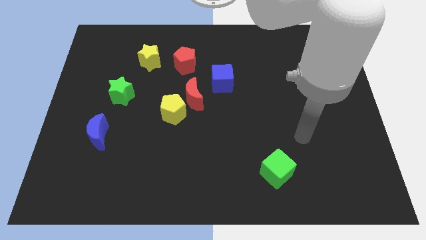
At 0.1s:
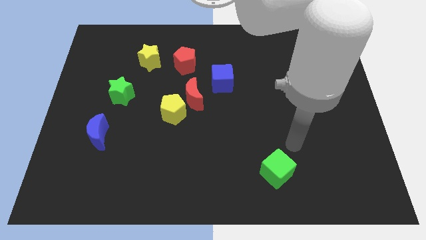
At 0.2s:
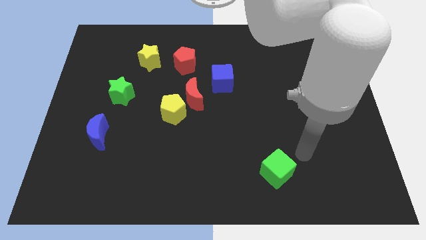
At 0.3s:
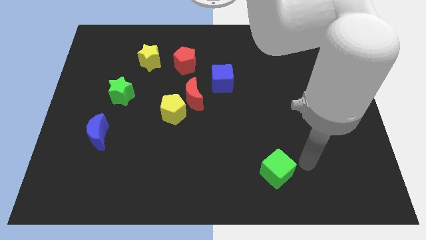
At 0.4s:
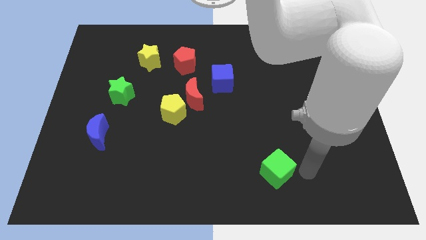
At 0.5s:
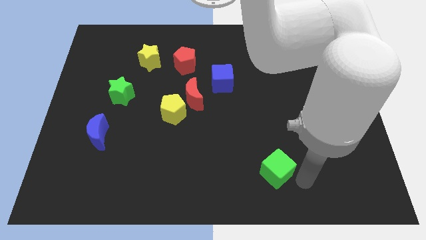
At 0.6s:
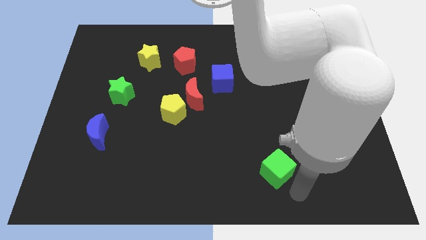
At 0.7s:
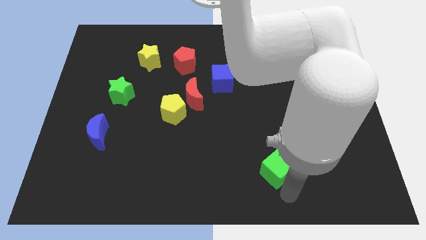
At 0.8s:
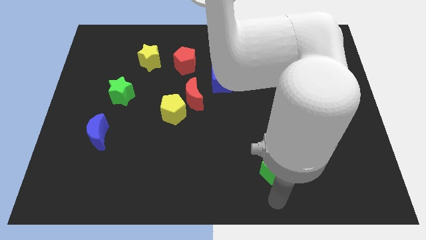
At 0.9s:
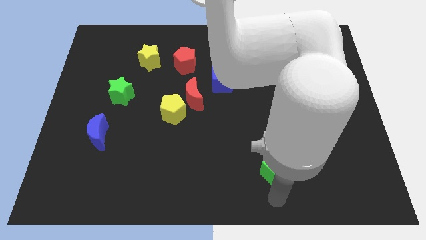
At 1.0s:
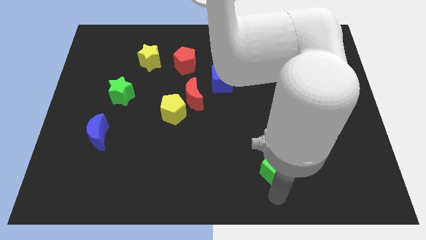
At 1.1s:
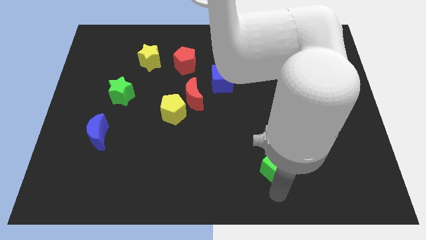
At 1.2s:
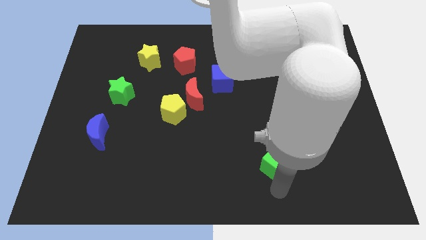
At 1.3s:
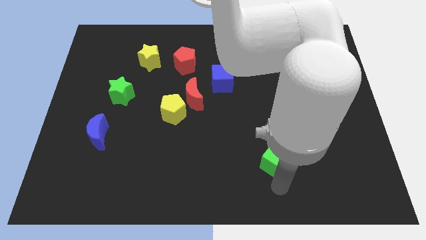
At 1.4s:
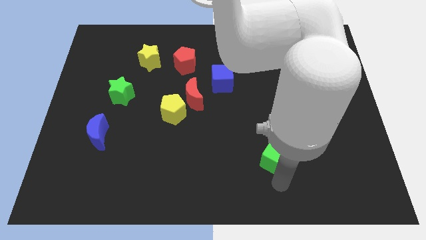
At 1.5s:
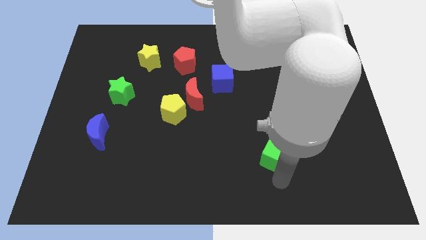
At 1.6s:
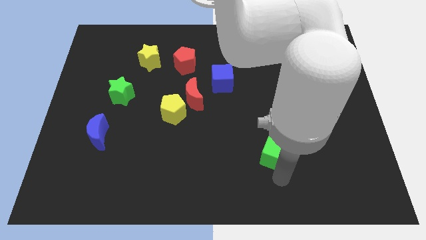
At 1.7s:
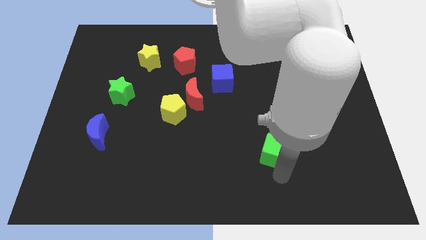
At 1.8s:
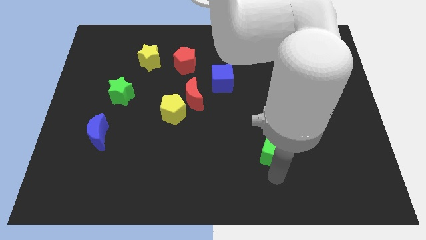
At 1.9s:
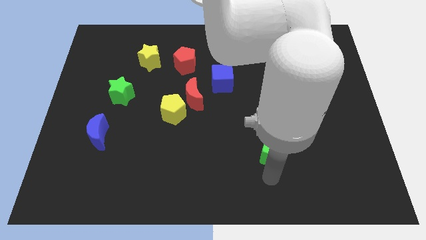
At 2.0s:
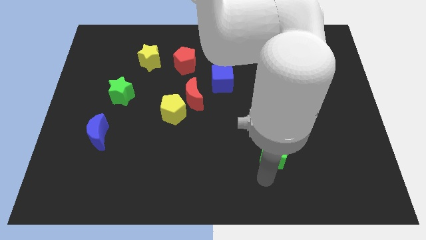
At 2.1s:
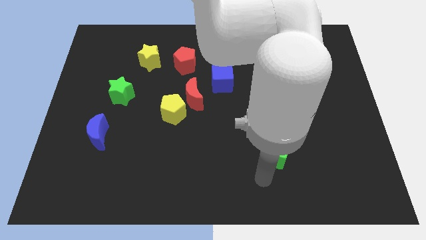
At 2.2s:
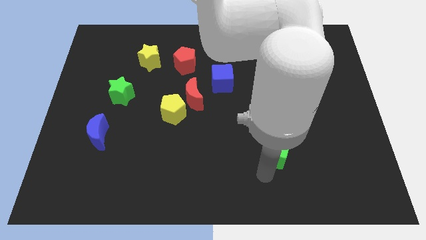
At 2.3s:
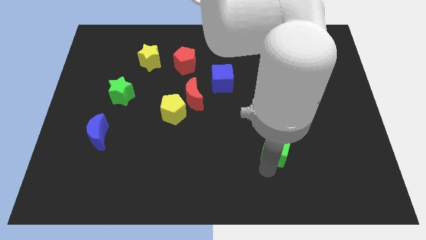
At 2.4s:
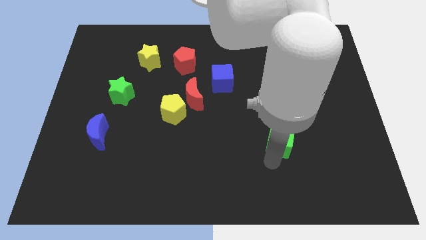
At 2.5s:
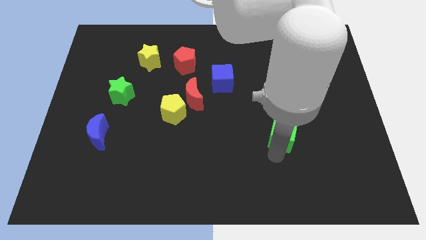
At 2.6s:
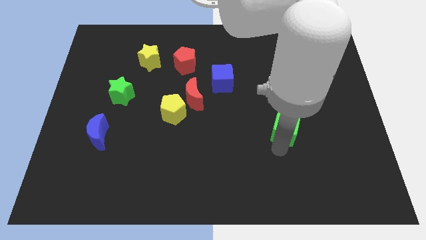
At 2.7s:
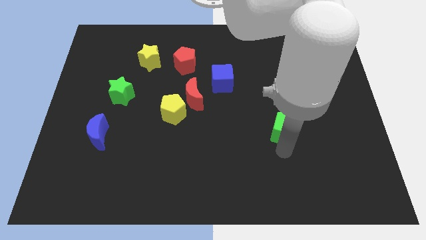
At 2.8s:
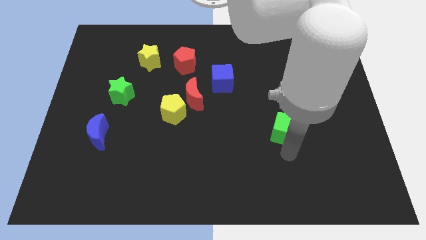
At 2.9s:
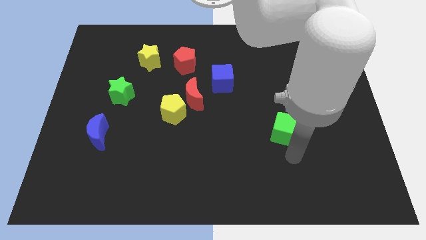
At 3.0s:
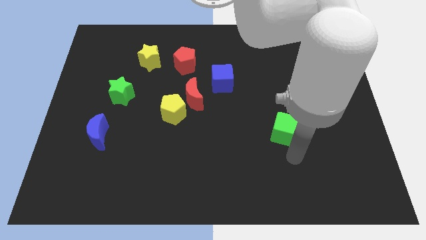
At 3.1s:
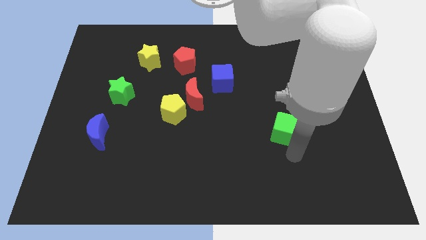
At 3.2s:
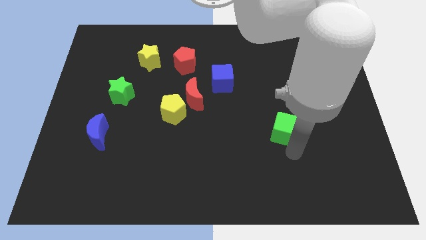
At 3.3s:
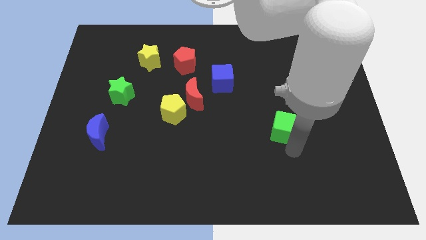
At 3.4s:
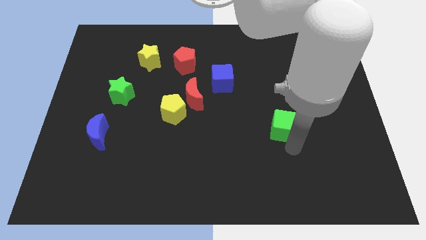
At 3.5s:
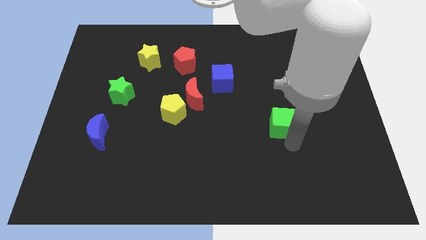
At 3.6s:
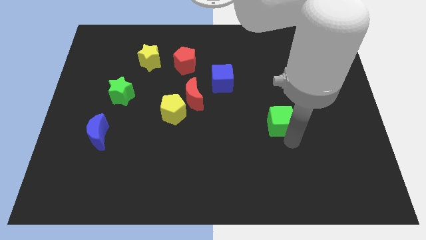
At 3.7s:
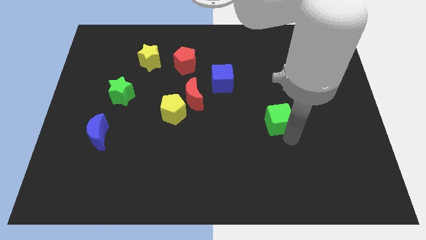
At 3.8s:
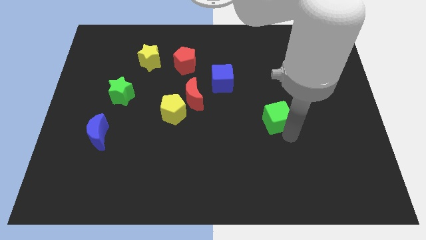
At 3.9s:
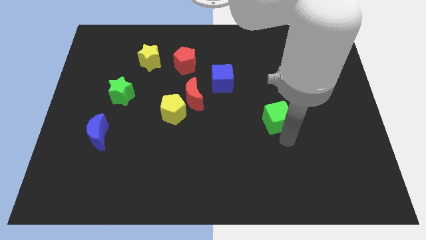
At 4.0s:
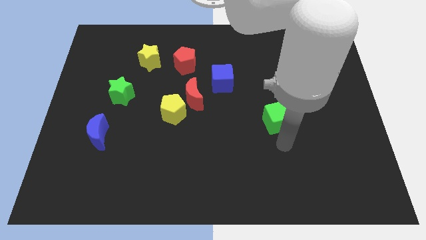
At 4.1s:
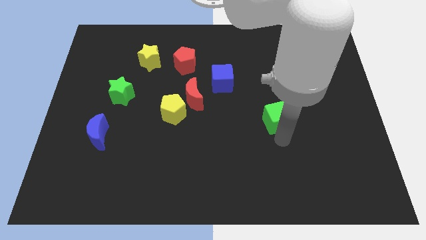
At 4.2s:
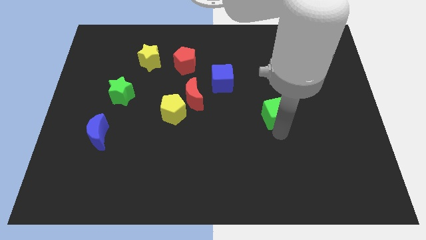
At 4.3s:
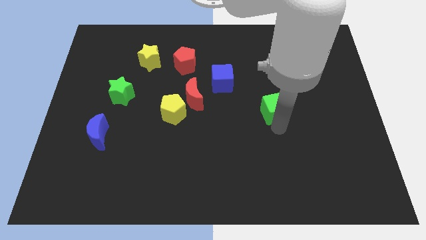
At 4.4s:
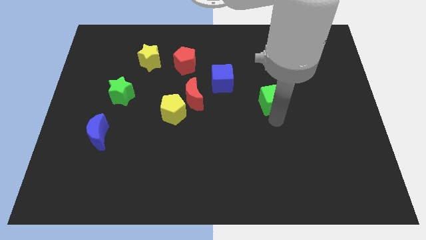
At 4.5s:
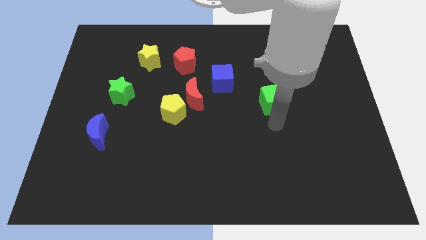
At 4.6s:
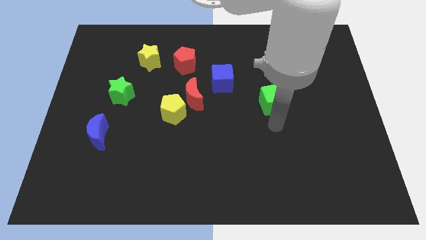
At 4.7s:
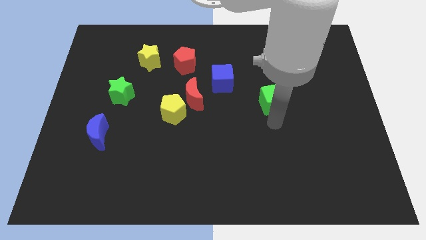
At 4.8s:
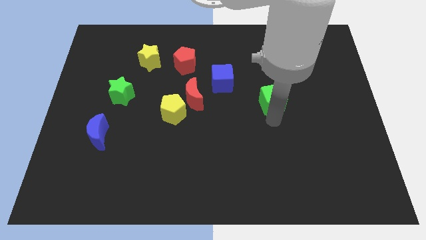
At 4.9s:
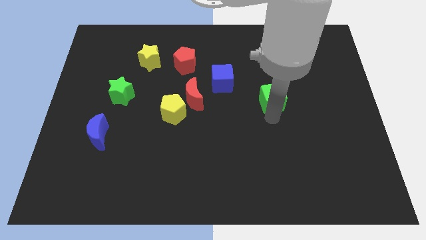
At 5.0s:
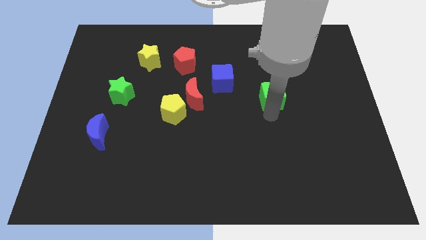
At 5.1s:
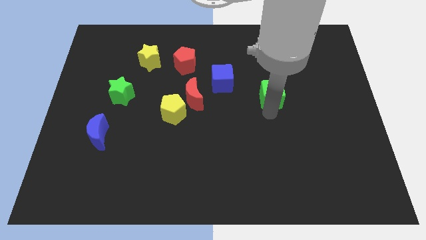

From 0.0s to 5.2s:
slide the green cube up

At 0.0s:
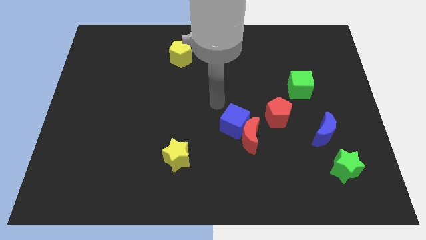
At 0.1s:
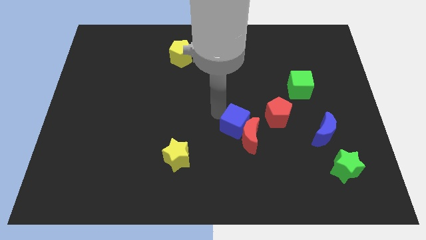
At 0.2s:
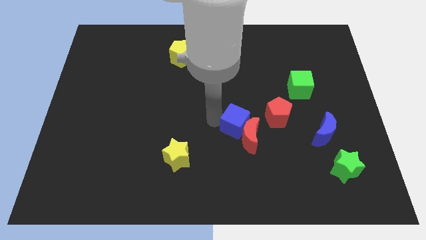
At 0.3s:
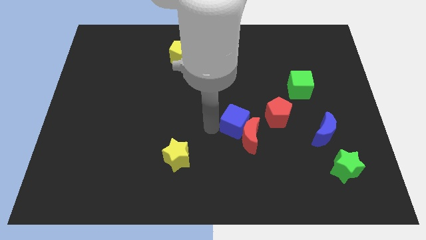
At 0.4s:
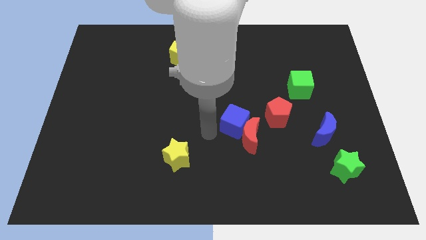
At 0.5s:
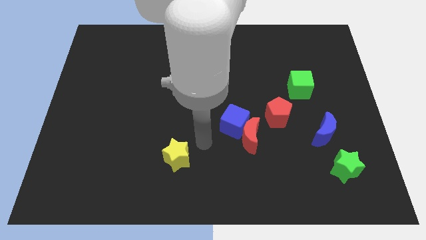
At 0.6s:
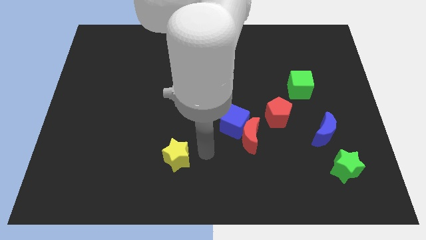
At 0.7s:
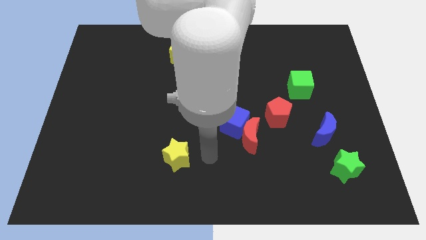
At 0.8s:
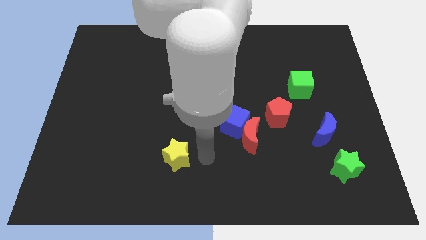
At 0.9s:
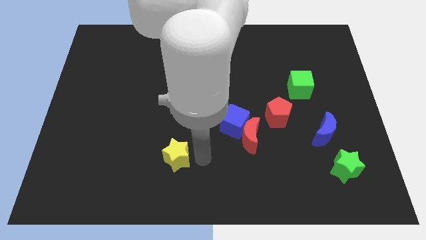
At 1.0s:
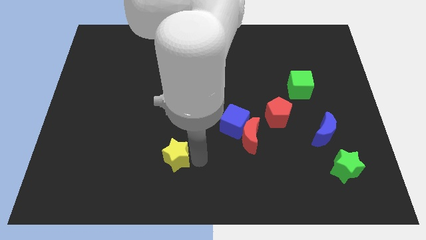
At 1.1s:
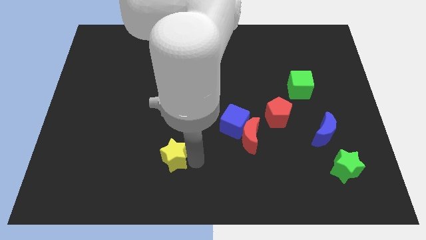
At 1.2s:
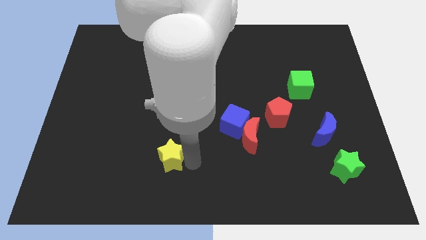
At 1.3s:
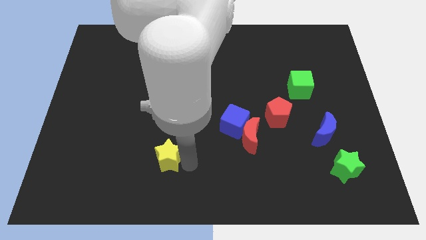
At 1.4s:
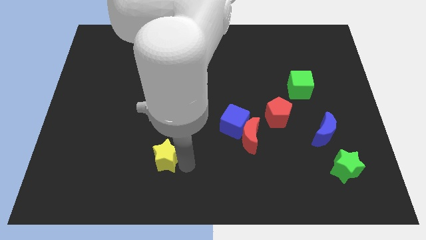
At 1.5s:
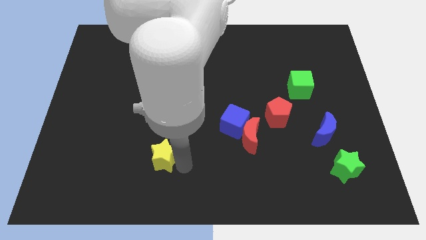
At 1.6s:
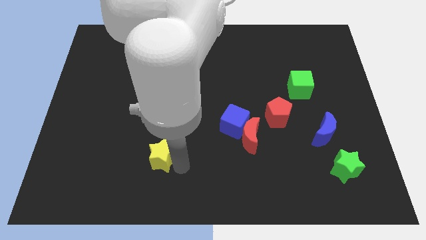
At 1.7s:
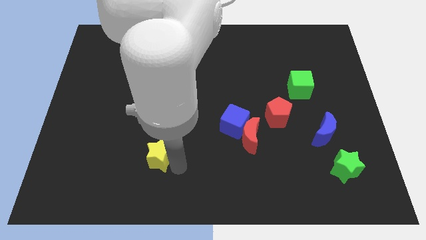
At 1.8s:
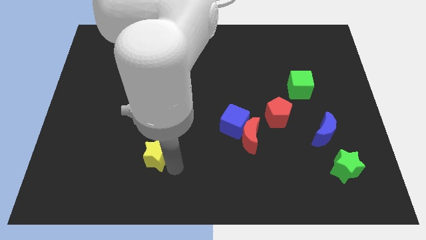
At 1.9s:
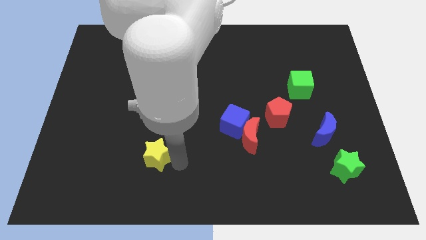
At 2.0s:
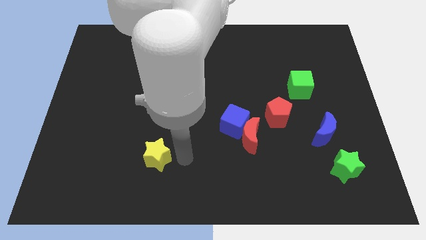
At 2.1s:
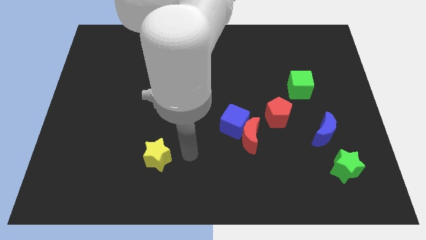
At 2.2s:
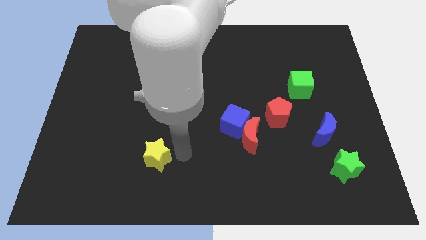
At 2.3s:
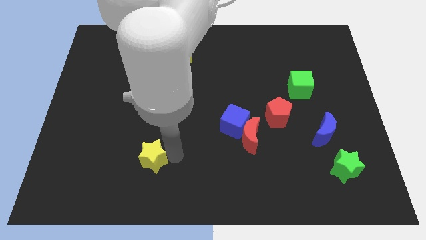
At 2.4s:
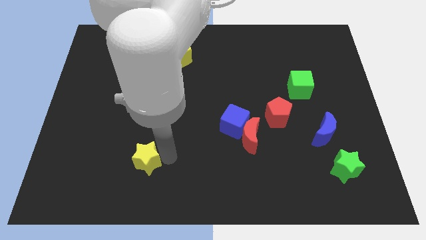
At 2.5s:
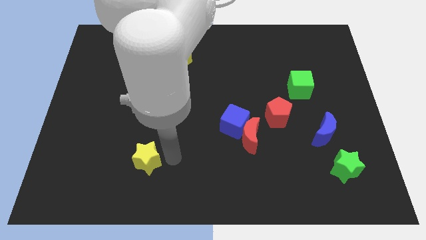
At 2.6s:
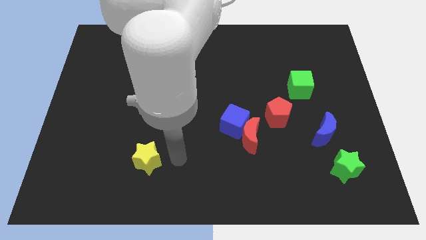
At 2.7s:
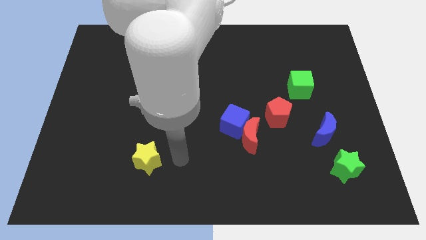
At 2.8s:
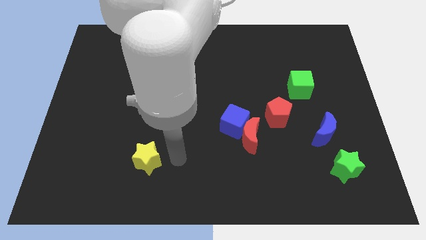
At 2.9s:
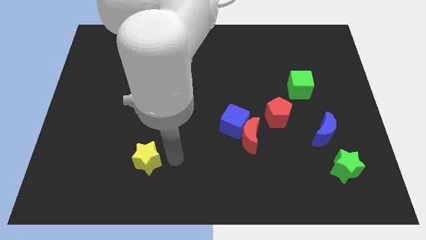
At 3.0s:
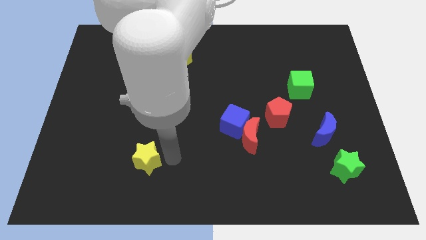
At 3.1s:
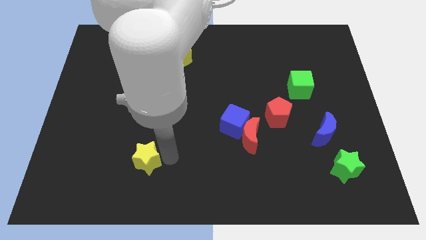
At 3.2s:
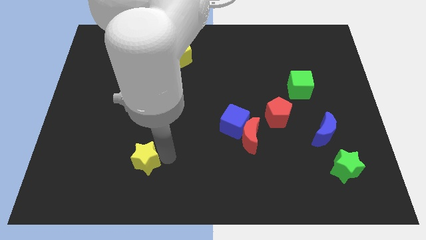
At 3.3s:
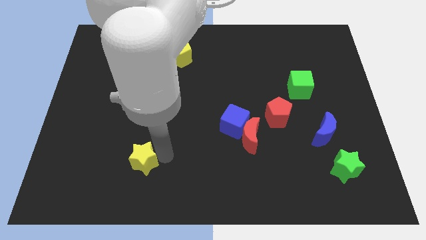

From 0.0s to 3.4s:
slightly push the yellow star to the left
